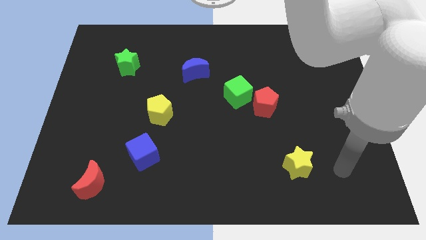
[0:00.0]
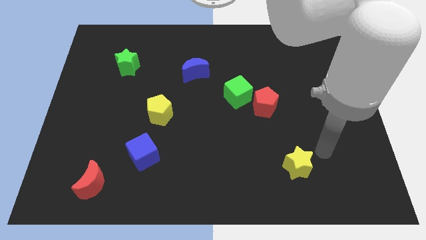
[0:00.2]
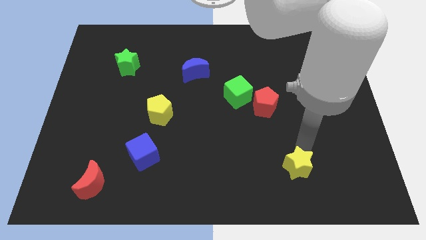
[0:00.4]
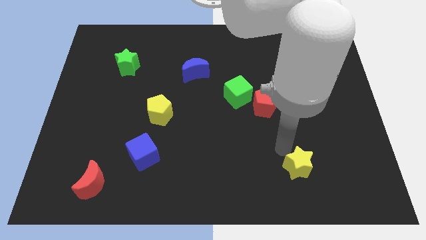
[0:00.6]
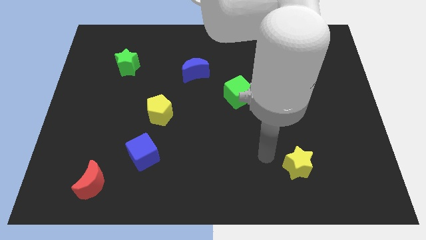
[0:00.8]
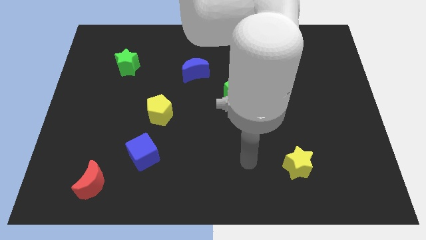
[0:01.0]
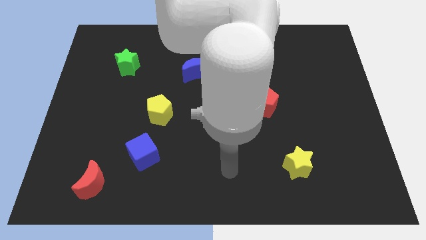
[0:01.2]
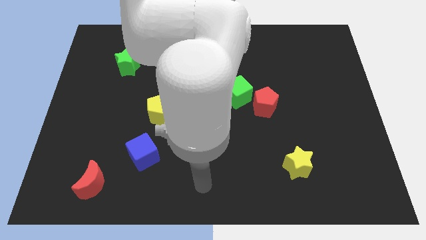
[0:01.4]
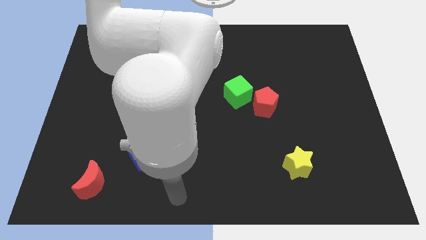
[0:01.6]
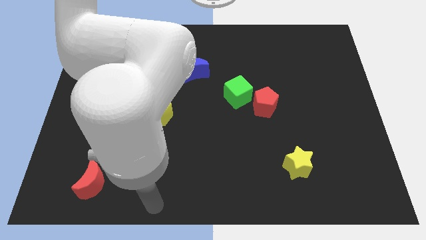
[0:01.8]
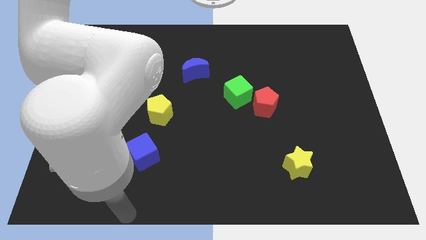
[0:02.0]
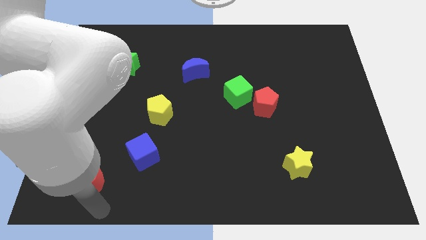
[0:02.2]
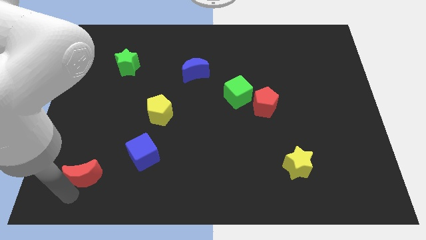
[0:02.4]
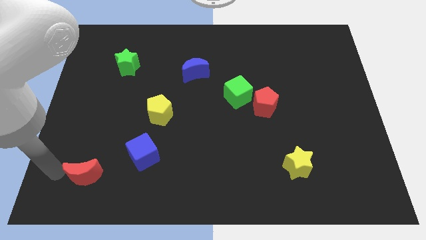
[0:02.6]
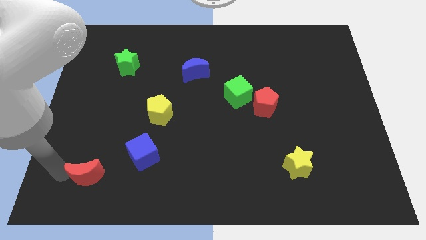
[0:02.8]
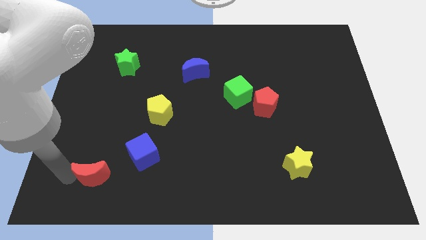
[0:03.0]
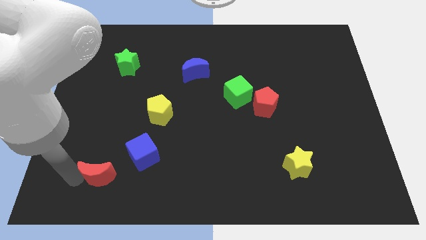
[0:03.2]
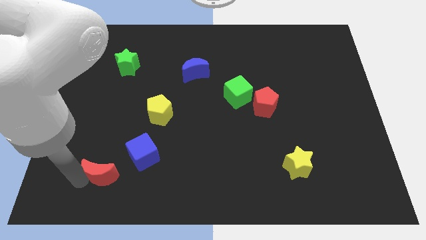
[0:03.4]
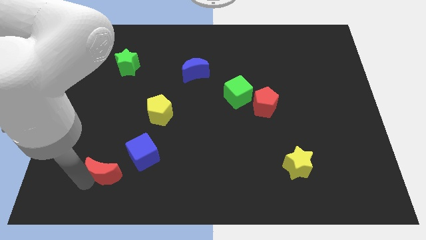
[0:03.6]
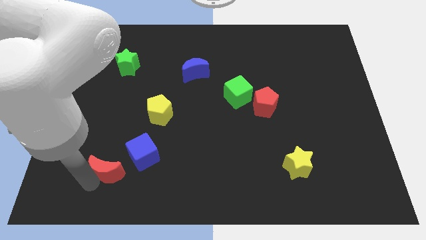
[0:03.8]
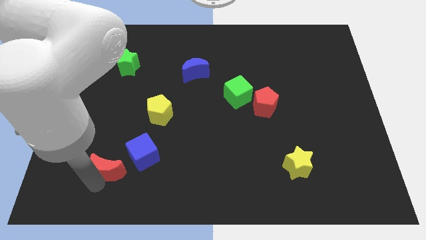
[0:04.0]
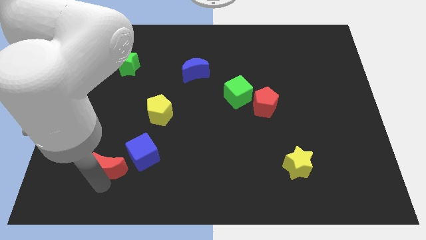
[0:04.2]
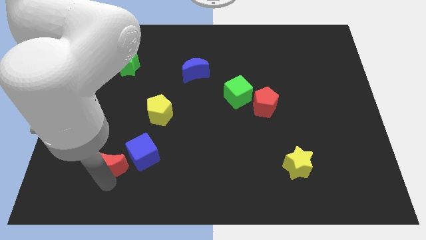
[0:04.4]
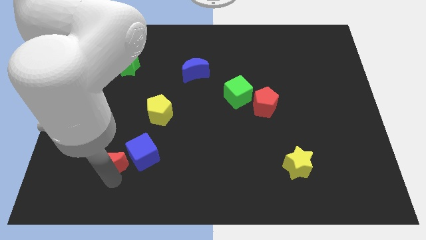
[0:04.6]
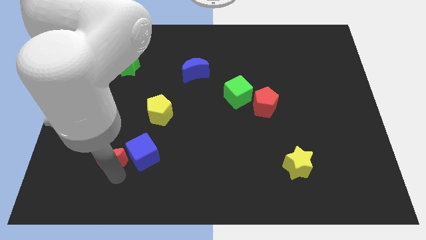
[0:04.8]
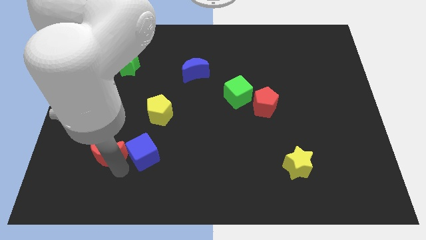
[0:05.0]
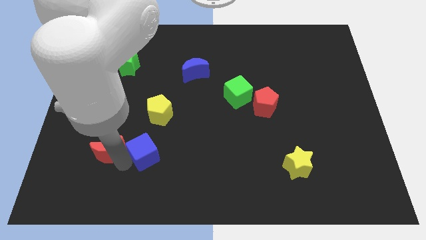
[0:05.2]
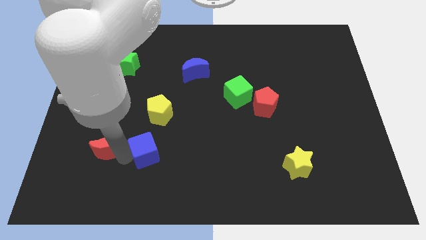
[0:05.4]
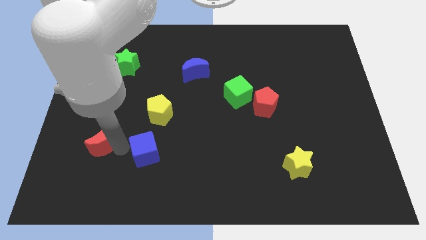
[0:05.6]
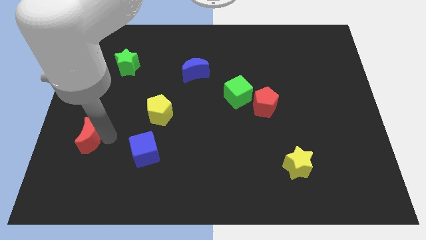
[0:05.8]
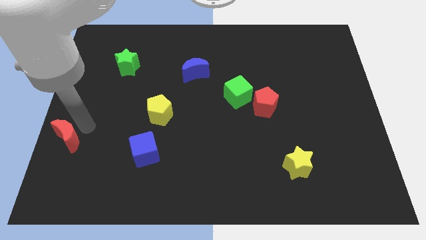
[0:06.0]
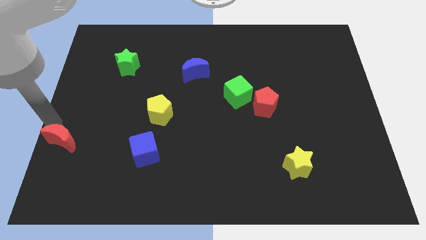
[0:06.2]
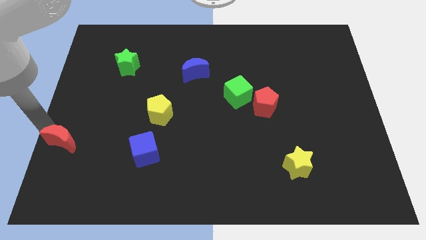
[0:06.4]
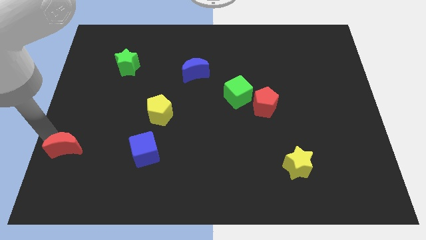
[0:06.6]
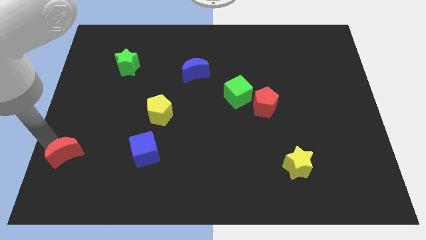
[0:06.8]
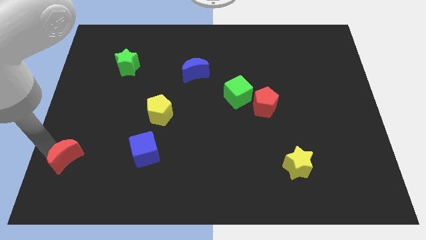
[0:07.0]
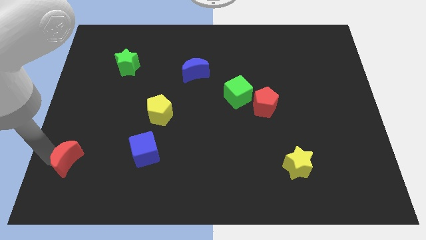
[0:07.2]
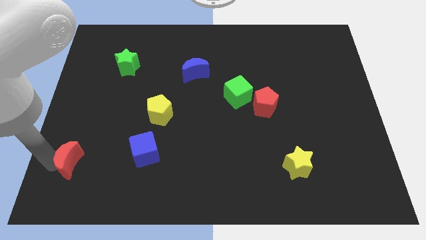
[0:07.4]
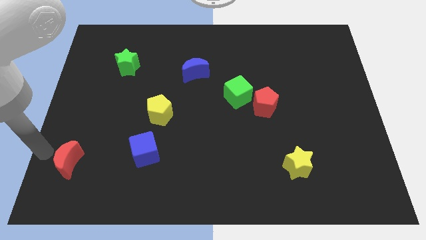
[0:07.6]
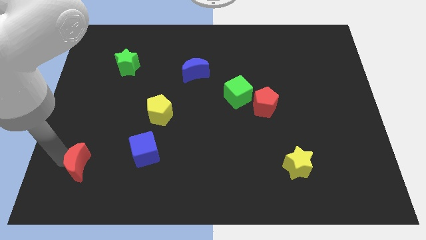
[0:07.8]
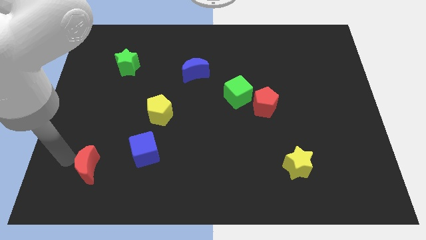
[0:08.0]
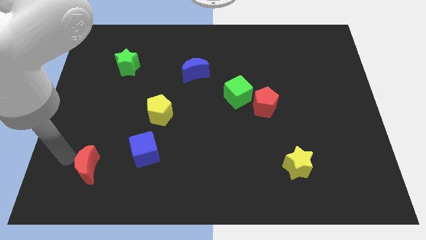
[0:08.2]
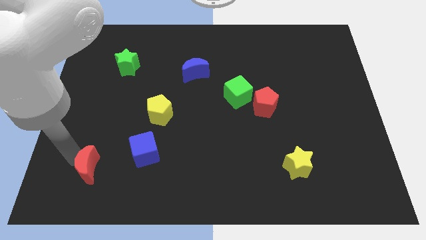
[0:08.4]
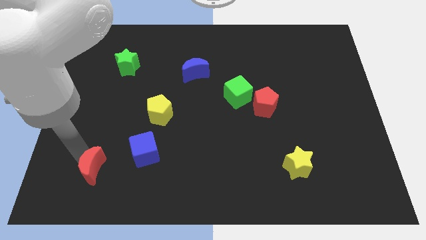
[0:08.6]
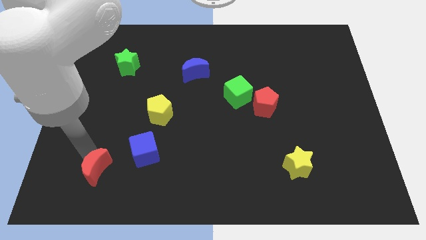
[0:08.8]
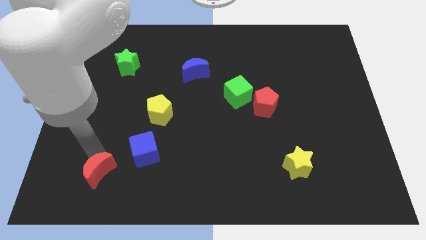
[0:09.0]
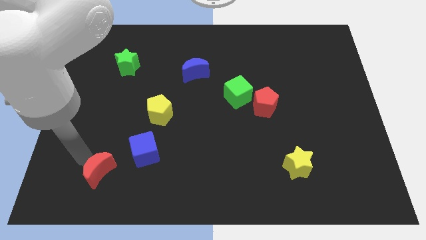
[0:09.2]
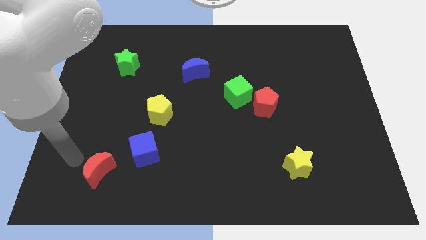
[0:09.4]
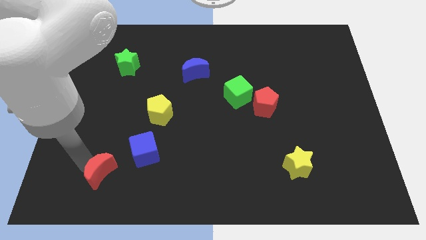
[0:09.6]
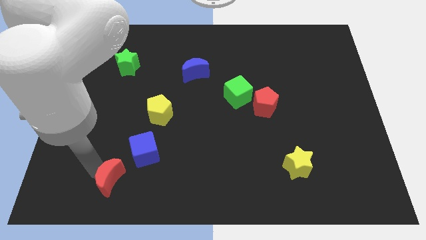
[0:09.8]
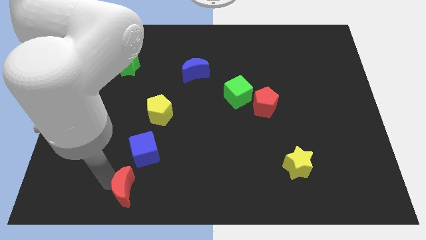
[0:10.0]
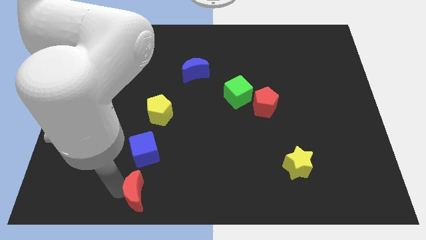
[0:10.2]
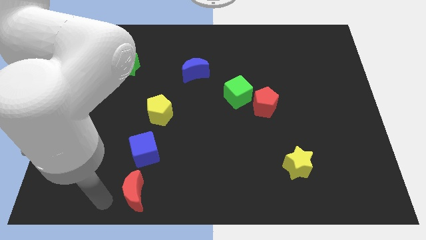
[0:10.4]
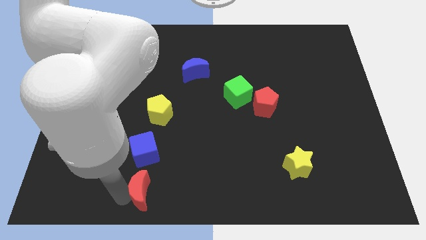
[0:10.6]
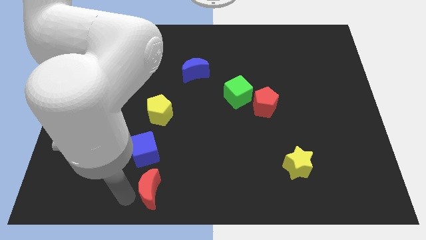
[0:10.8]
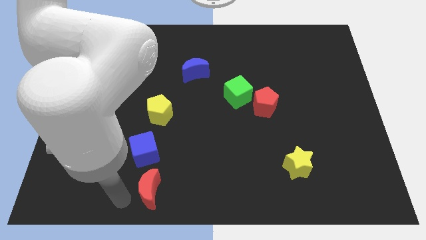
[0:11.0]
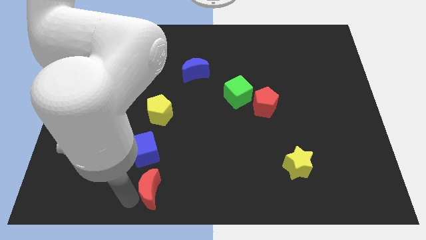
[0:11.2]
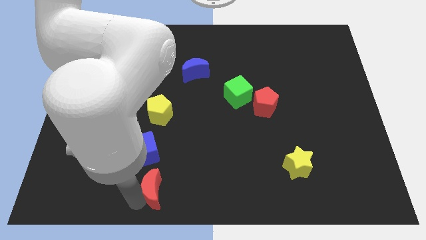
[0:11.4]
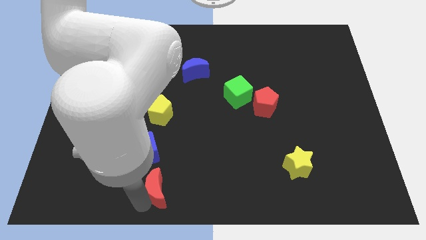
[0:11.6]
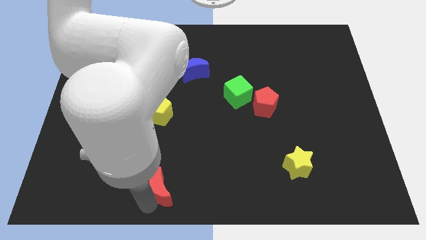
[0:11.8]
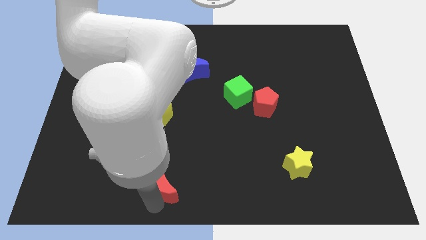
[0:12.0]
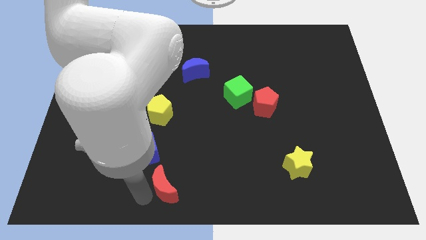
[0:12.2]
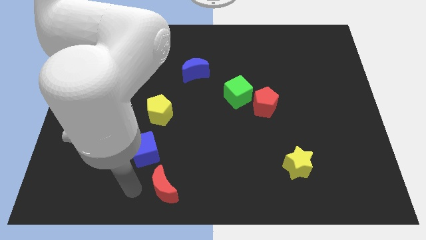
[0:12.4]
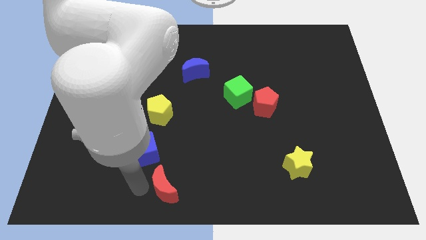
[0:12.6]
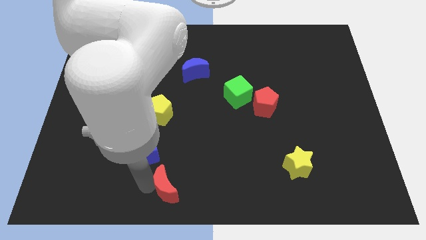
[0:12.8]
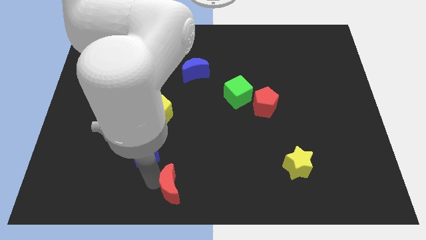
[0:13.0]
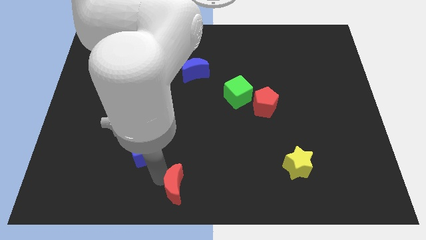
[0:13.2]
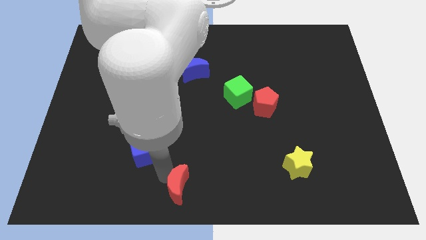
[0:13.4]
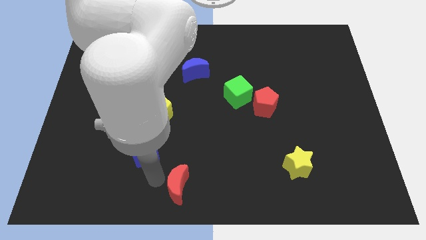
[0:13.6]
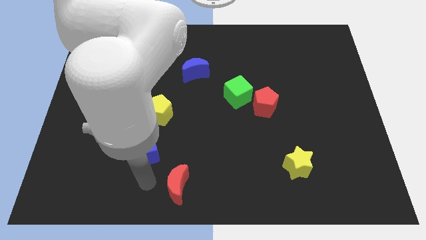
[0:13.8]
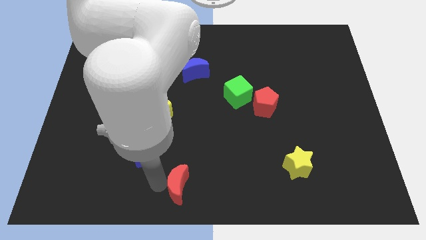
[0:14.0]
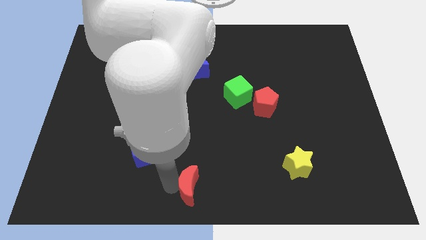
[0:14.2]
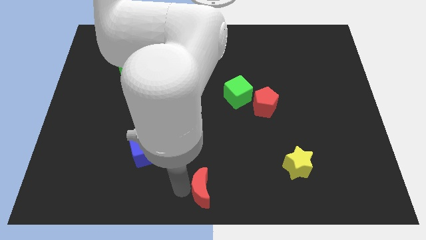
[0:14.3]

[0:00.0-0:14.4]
move the red moon to the right

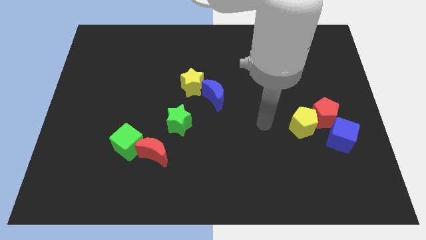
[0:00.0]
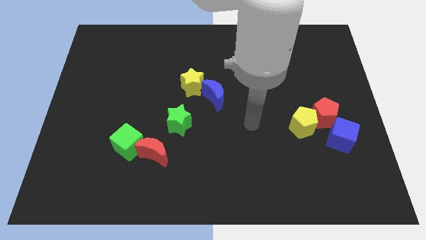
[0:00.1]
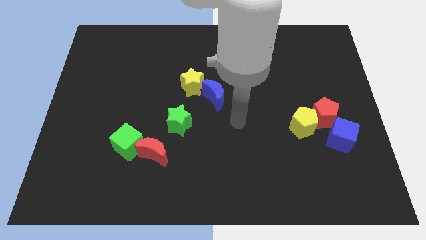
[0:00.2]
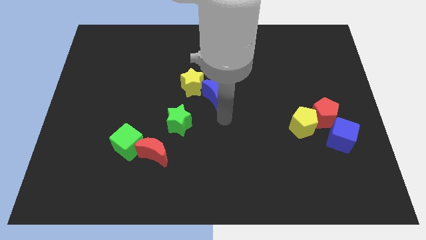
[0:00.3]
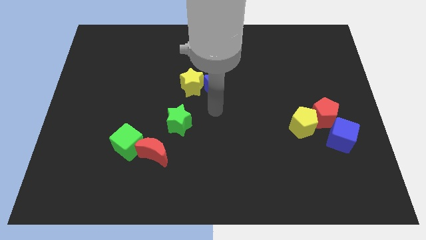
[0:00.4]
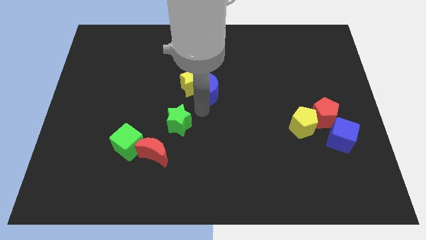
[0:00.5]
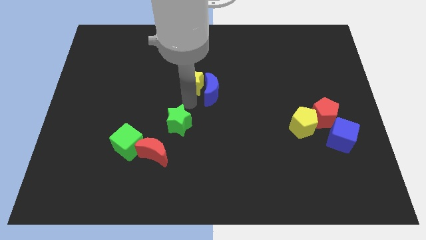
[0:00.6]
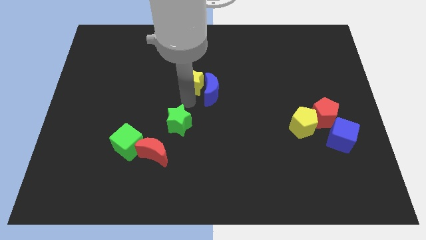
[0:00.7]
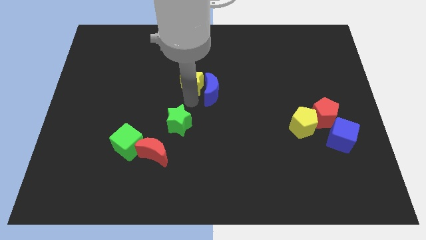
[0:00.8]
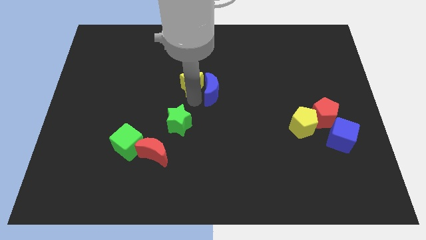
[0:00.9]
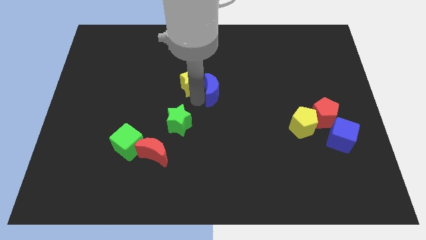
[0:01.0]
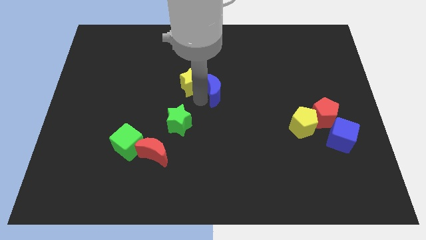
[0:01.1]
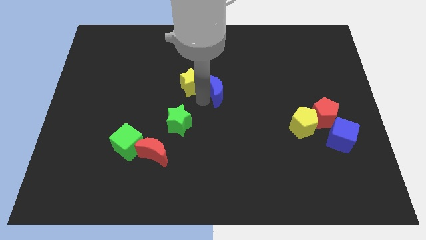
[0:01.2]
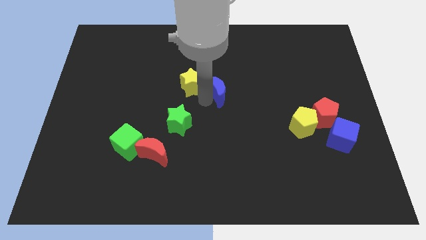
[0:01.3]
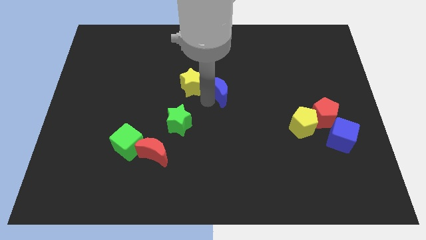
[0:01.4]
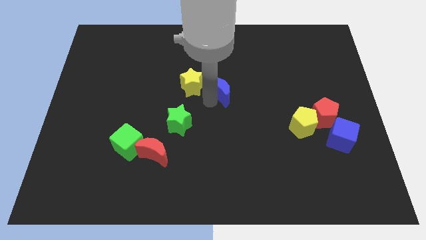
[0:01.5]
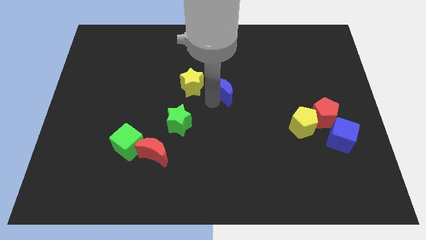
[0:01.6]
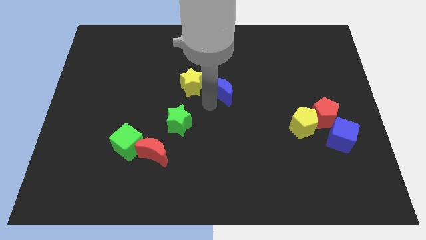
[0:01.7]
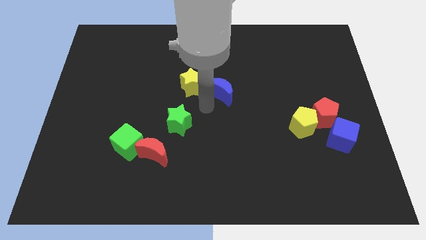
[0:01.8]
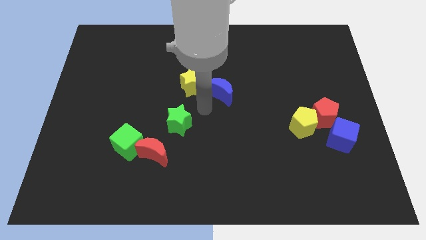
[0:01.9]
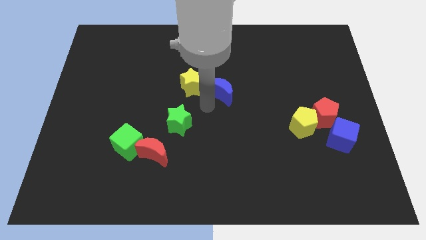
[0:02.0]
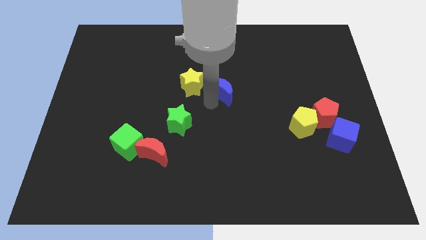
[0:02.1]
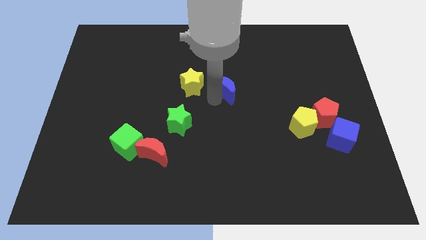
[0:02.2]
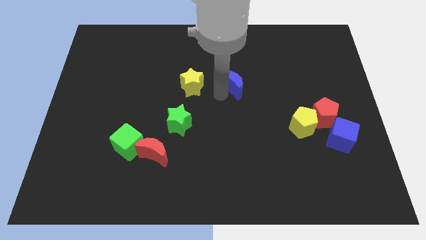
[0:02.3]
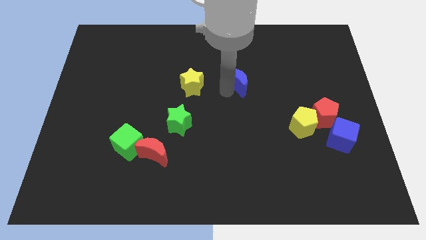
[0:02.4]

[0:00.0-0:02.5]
move the blue moon a little up and then right
